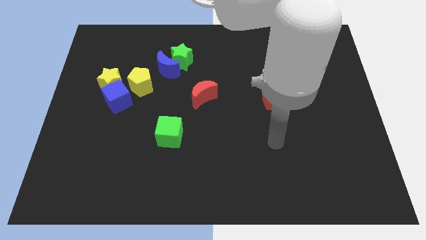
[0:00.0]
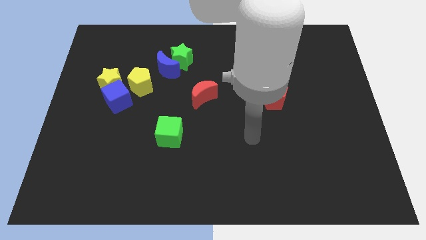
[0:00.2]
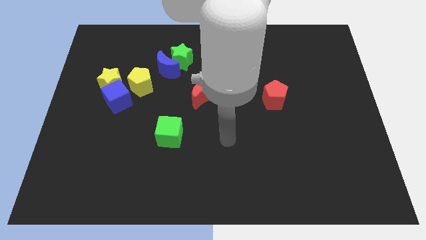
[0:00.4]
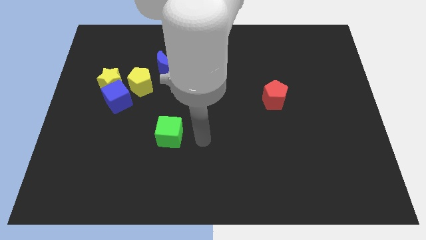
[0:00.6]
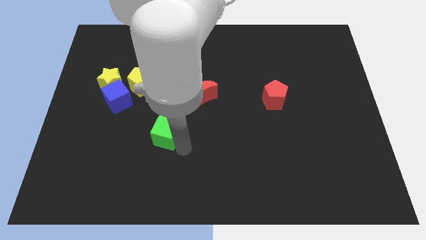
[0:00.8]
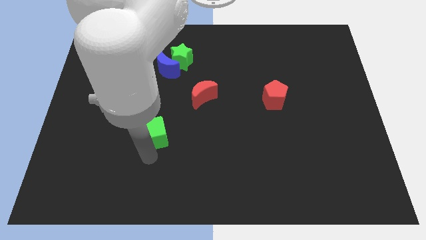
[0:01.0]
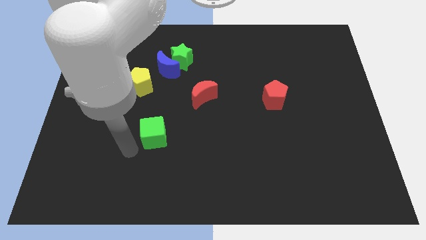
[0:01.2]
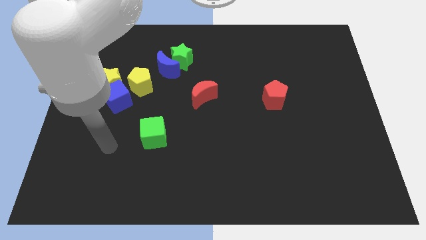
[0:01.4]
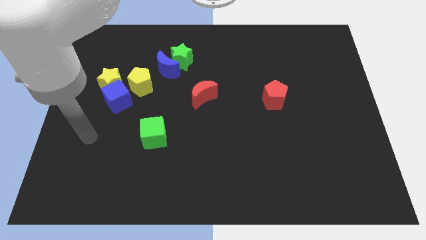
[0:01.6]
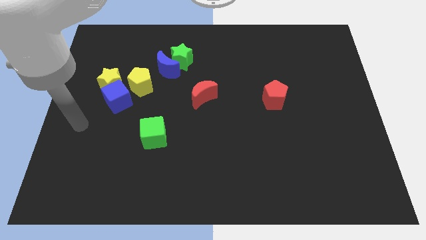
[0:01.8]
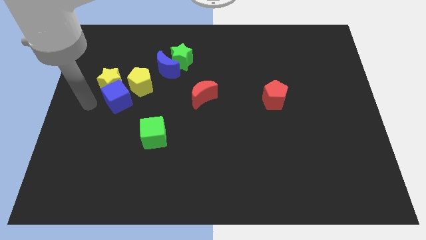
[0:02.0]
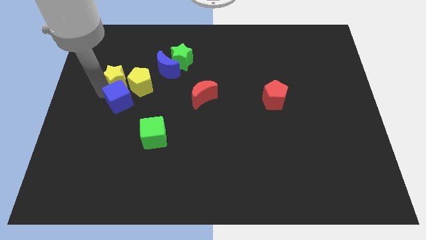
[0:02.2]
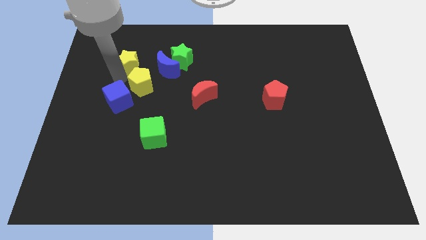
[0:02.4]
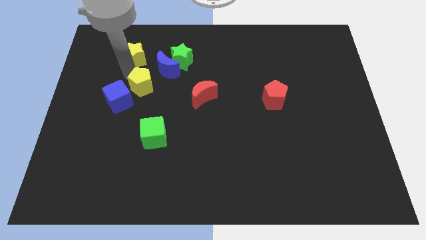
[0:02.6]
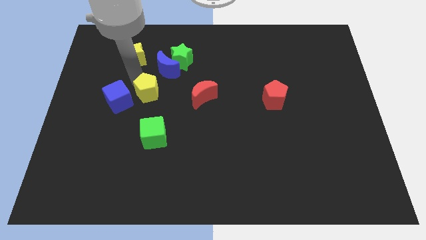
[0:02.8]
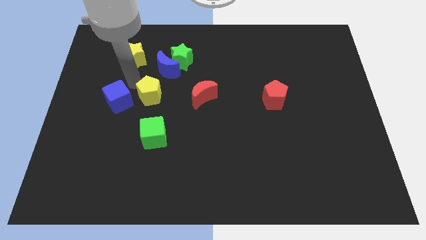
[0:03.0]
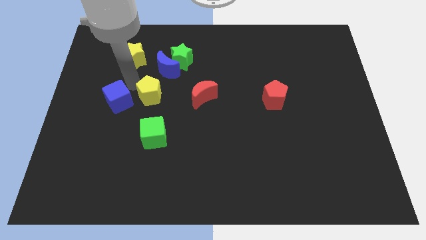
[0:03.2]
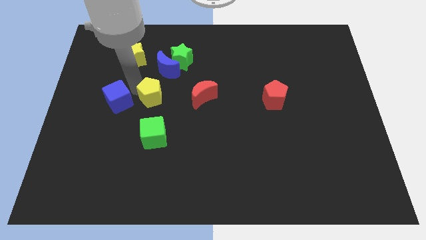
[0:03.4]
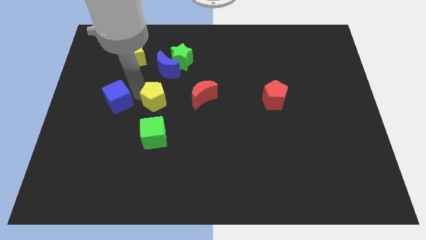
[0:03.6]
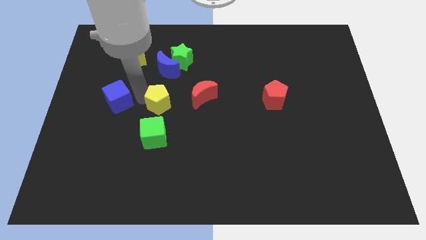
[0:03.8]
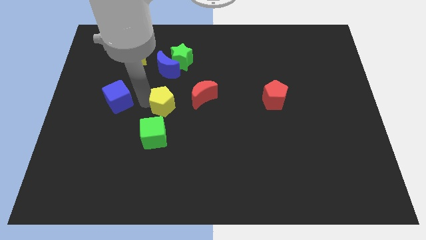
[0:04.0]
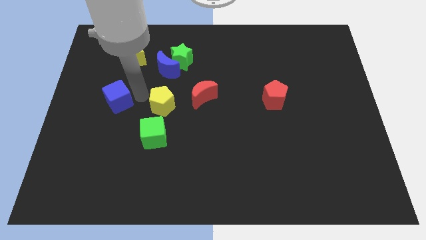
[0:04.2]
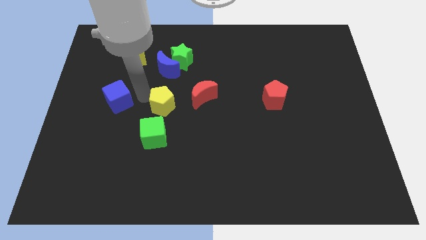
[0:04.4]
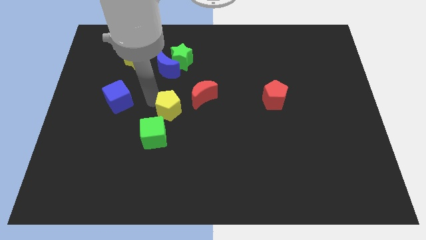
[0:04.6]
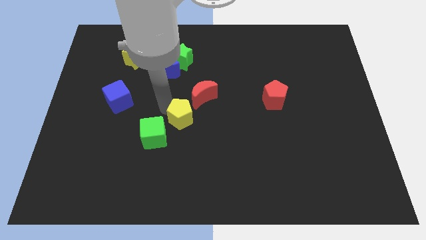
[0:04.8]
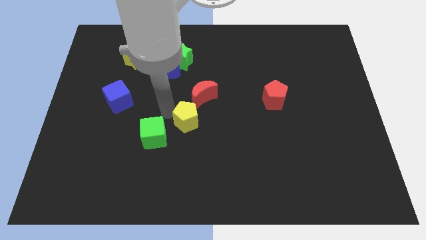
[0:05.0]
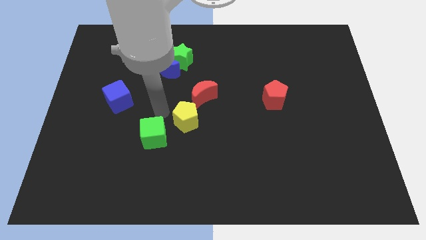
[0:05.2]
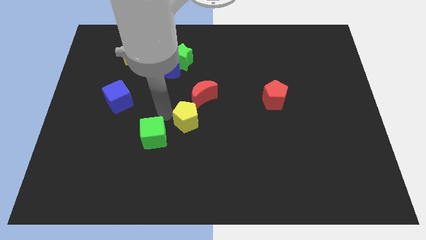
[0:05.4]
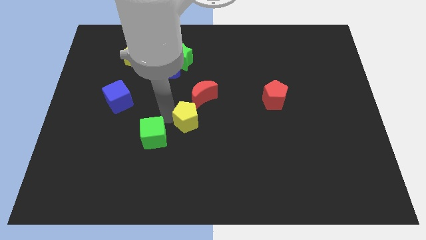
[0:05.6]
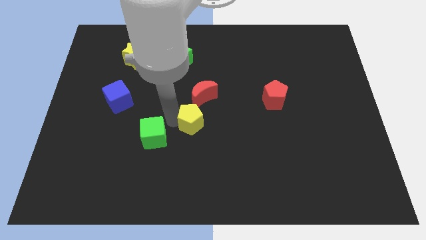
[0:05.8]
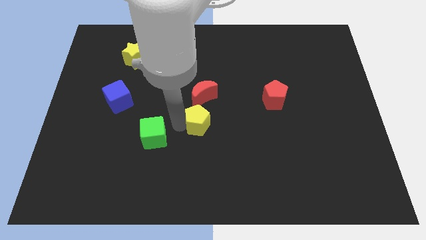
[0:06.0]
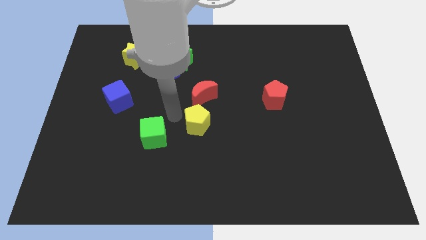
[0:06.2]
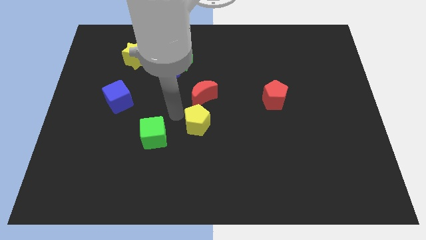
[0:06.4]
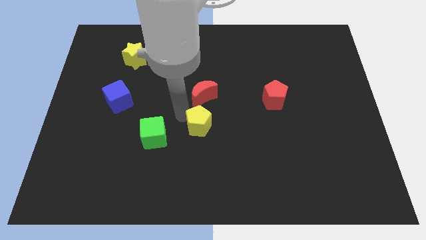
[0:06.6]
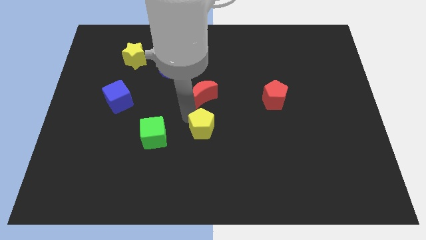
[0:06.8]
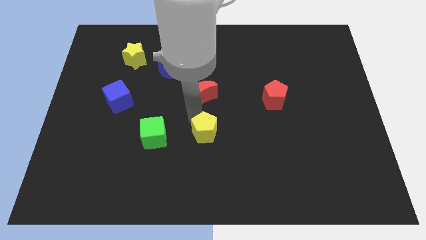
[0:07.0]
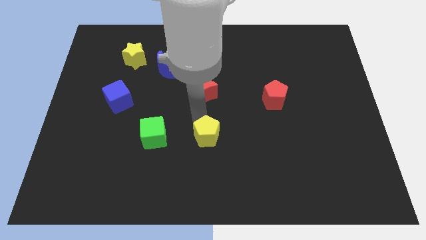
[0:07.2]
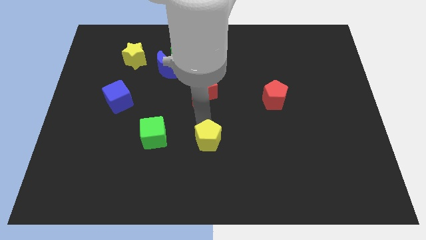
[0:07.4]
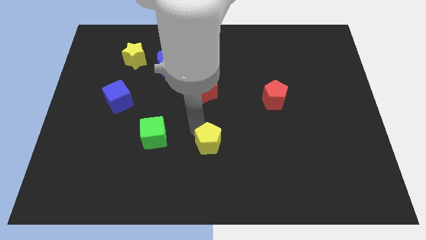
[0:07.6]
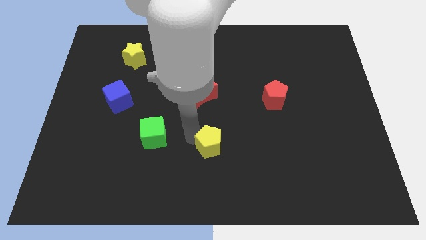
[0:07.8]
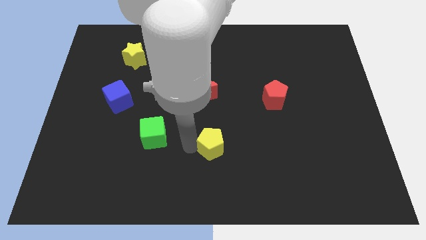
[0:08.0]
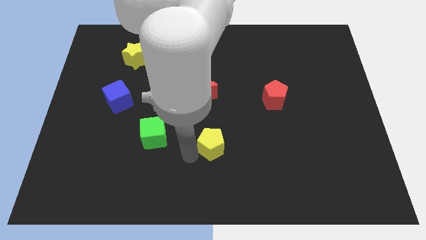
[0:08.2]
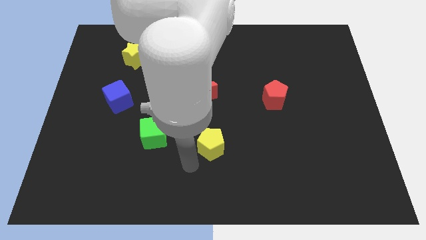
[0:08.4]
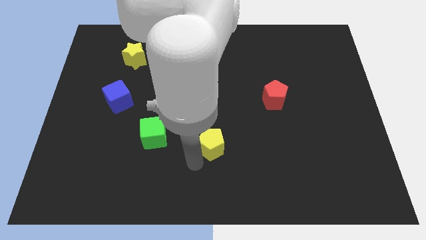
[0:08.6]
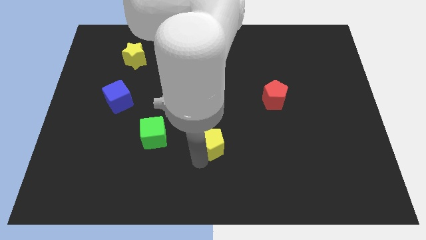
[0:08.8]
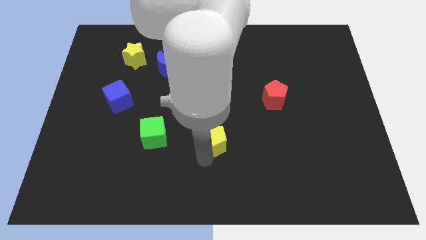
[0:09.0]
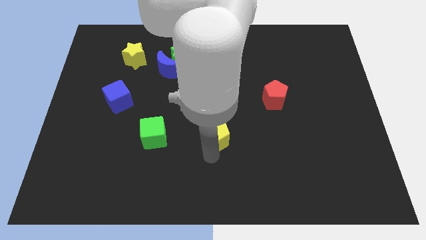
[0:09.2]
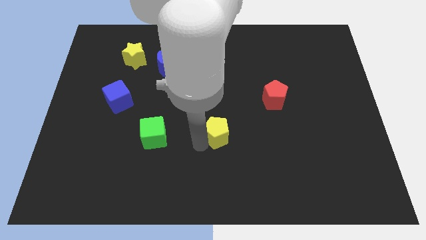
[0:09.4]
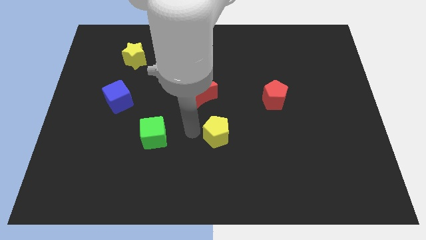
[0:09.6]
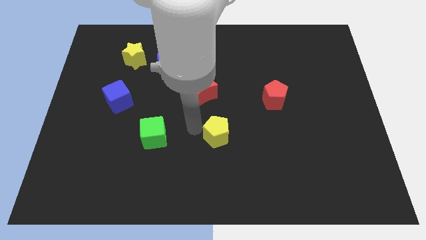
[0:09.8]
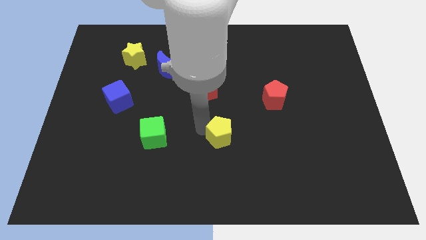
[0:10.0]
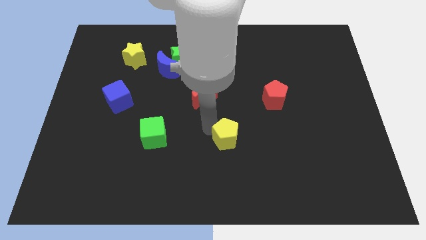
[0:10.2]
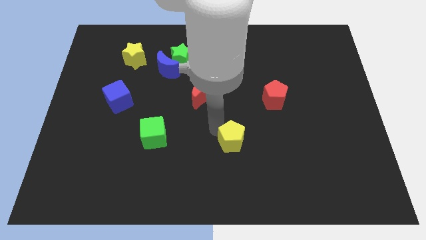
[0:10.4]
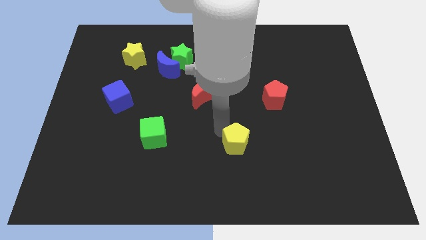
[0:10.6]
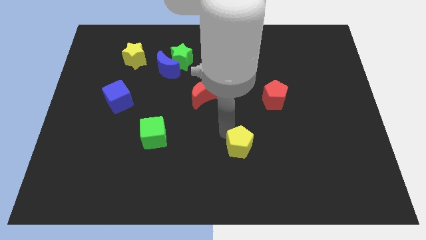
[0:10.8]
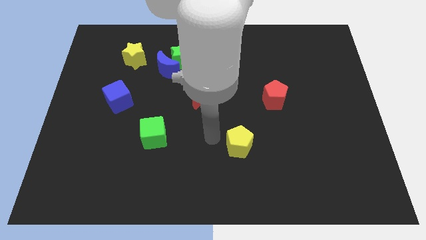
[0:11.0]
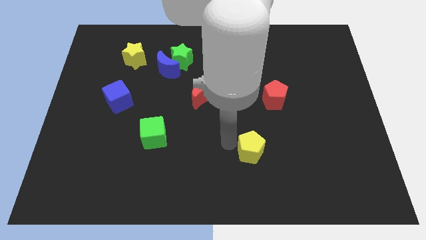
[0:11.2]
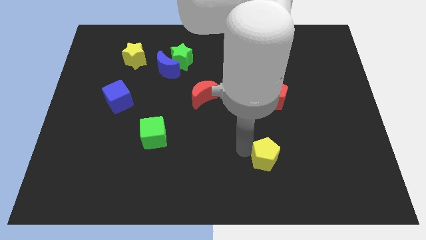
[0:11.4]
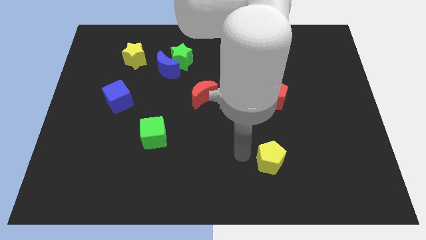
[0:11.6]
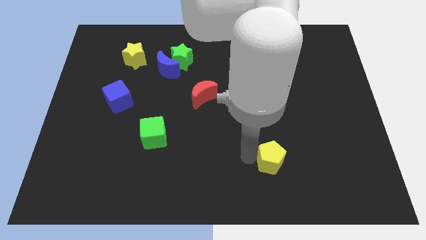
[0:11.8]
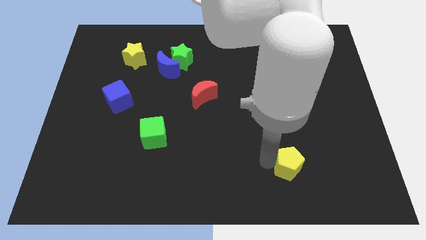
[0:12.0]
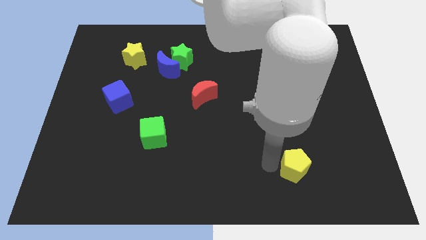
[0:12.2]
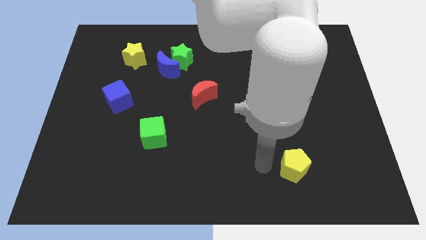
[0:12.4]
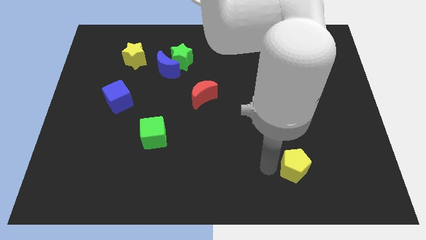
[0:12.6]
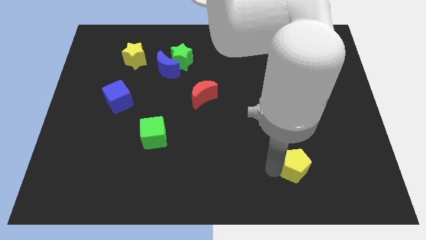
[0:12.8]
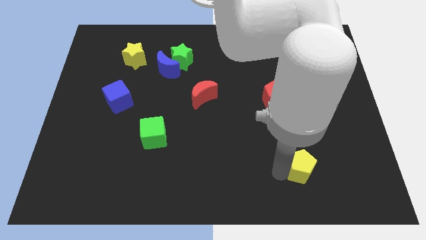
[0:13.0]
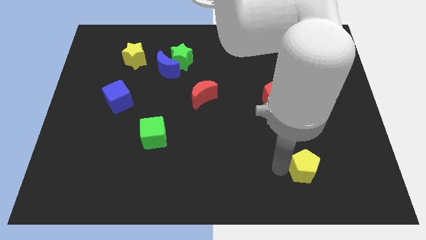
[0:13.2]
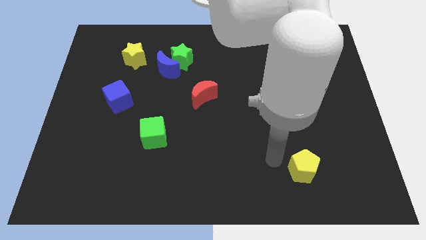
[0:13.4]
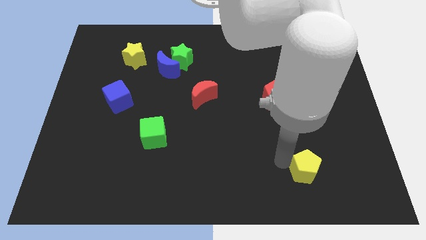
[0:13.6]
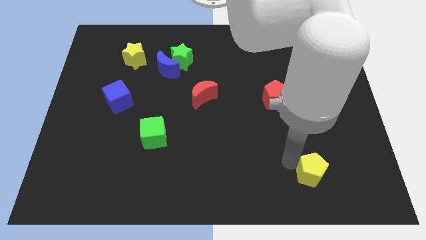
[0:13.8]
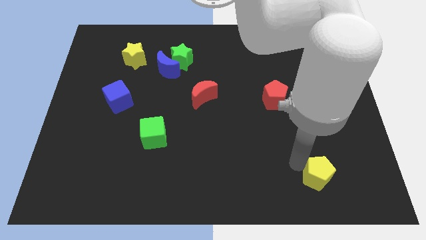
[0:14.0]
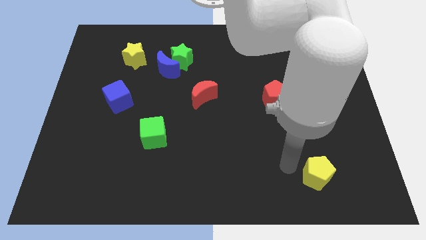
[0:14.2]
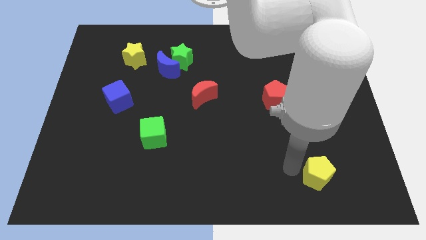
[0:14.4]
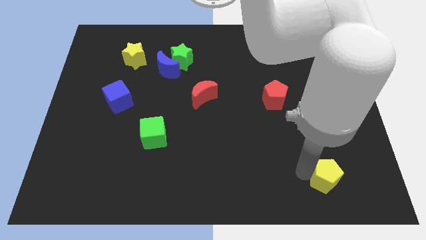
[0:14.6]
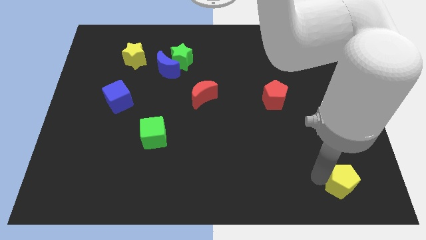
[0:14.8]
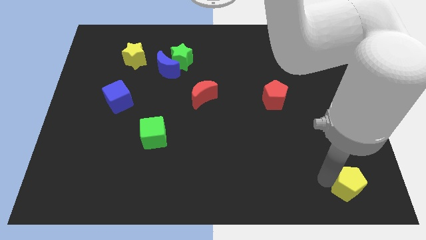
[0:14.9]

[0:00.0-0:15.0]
put the yellow pentagon to the lower right corner
